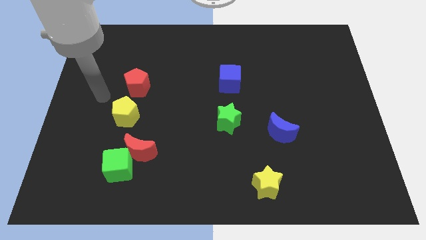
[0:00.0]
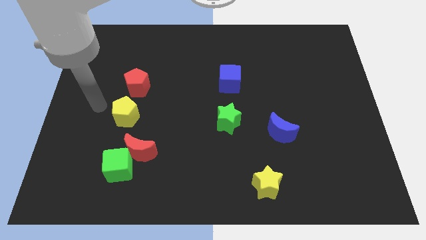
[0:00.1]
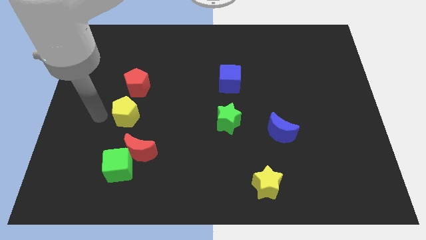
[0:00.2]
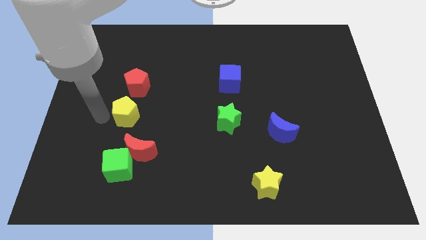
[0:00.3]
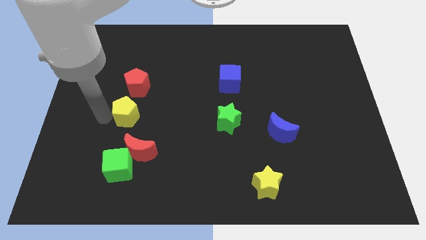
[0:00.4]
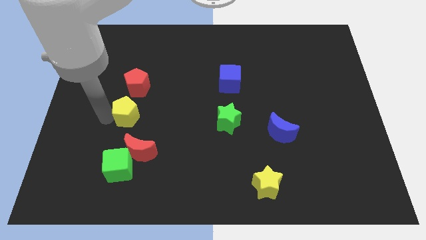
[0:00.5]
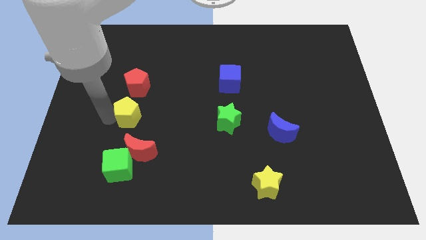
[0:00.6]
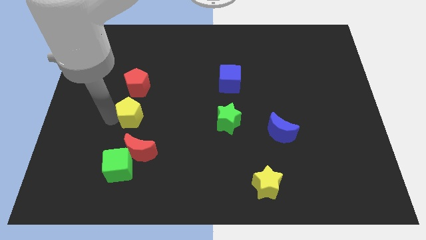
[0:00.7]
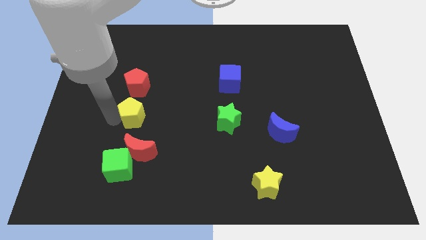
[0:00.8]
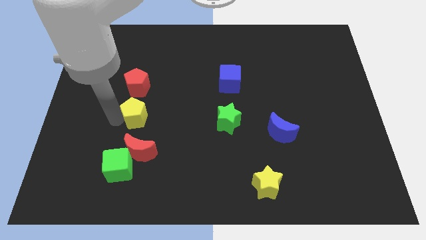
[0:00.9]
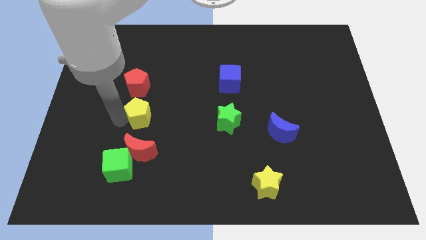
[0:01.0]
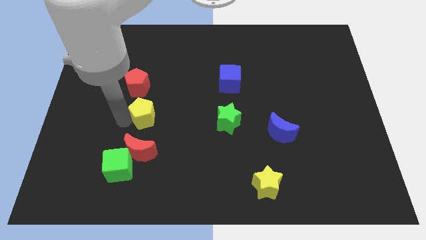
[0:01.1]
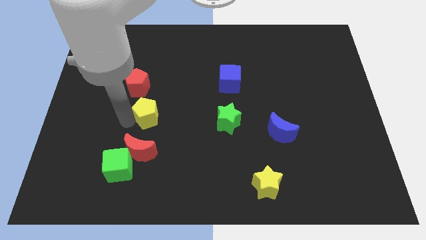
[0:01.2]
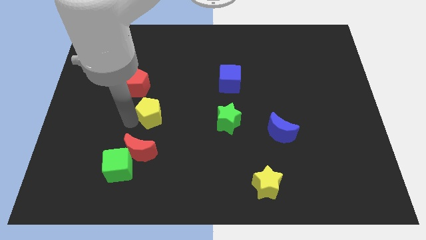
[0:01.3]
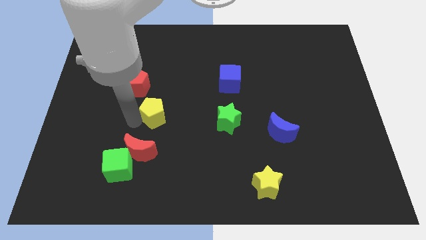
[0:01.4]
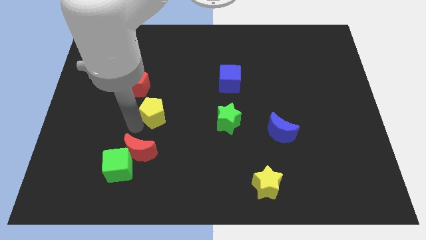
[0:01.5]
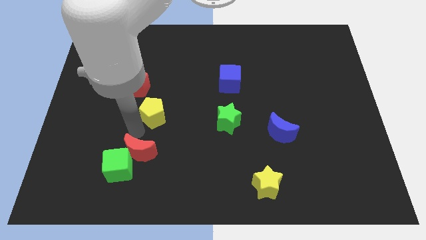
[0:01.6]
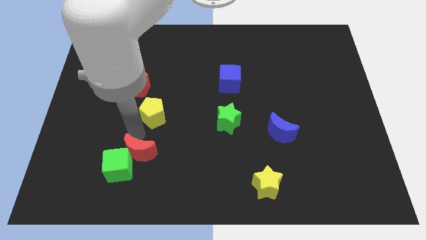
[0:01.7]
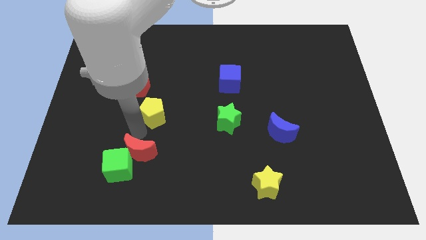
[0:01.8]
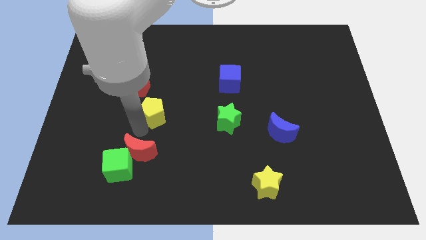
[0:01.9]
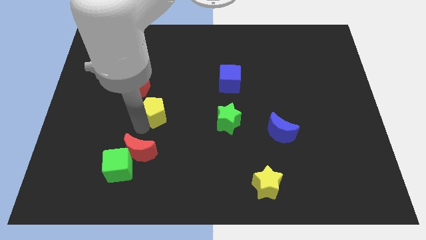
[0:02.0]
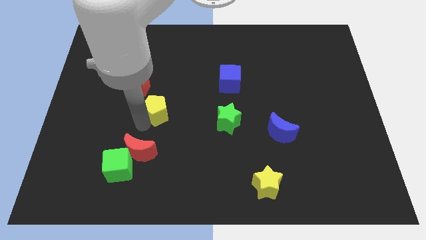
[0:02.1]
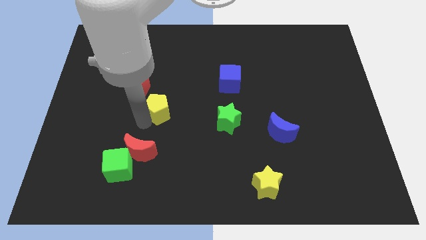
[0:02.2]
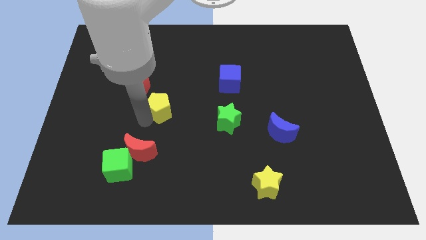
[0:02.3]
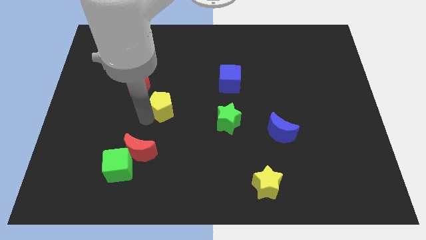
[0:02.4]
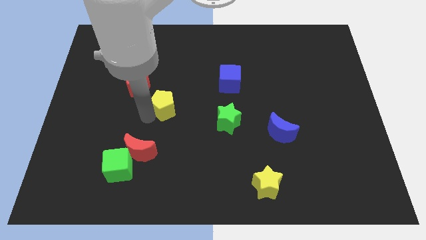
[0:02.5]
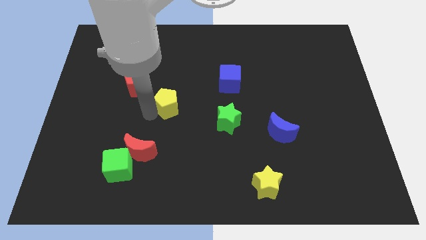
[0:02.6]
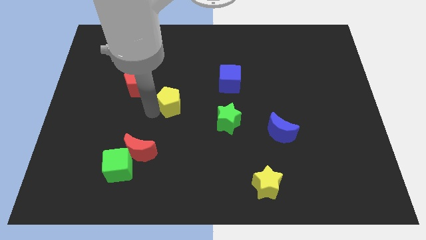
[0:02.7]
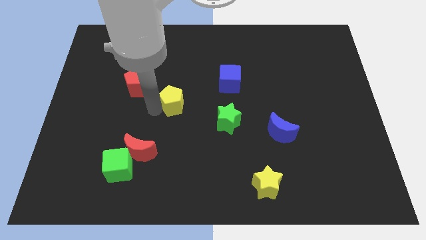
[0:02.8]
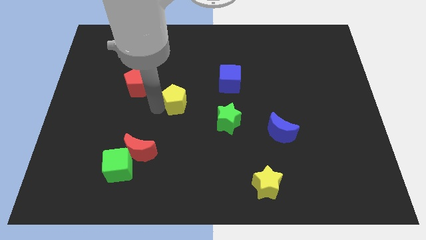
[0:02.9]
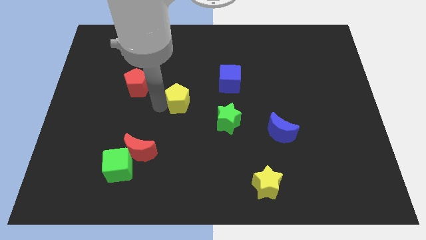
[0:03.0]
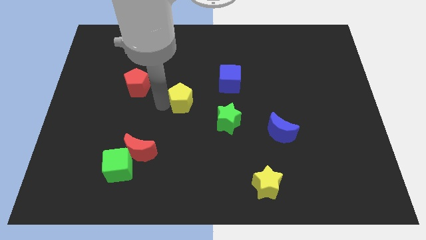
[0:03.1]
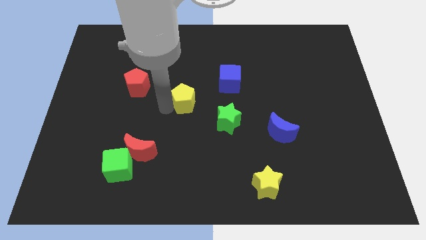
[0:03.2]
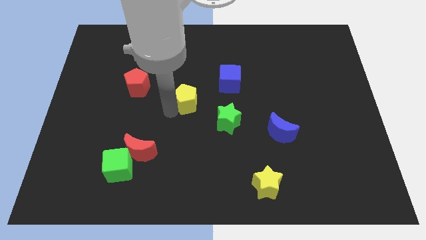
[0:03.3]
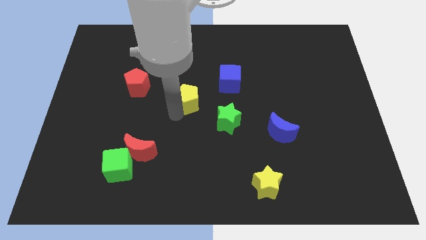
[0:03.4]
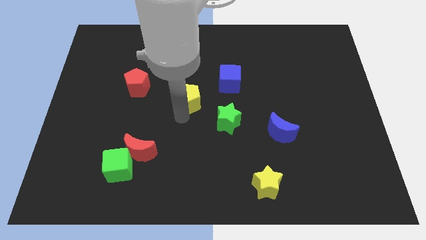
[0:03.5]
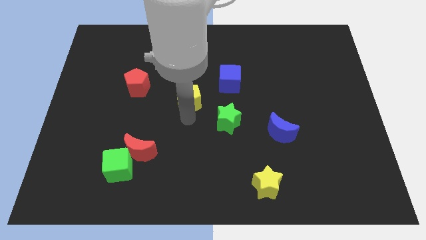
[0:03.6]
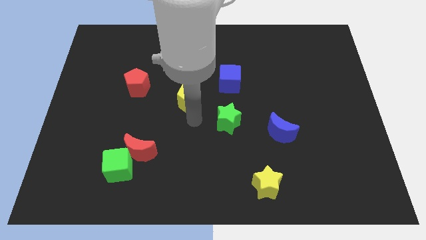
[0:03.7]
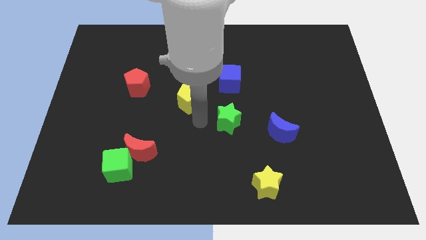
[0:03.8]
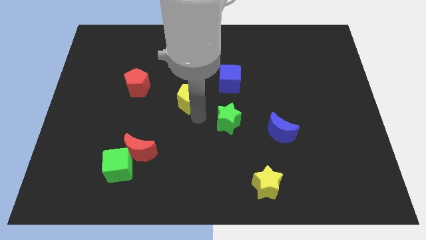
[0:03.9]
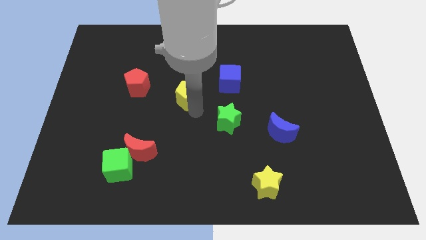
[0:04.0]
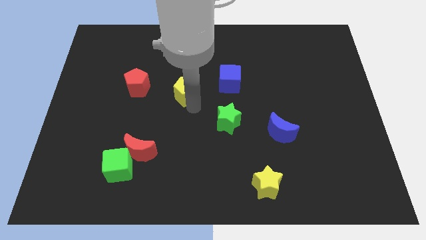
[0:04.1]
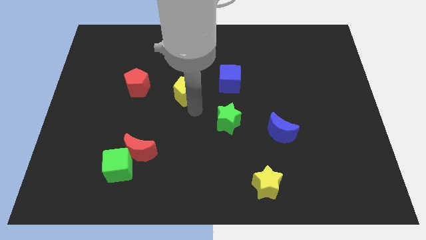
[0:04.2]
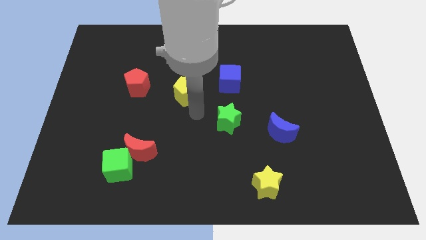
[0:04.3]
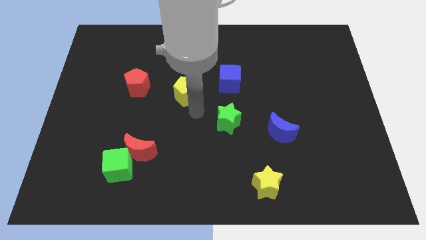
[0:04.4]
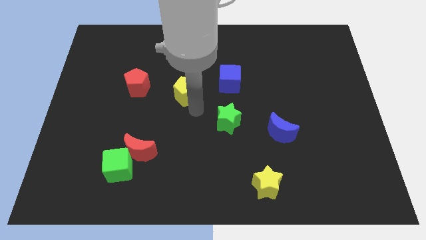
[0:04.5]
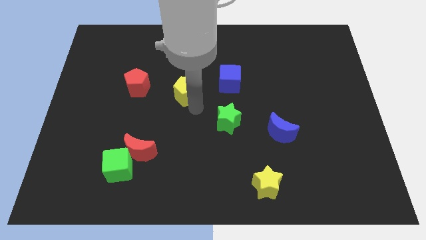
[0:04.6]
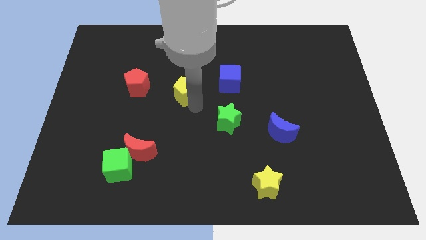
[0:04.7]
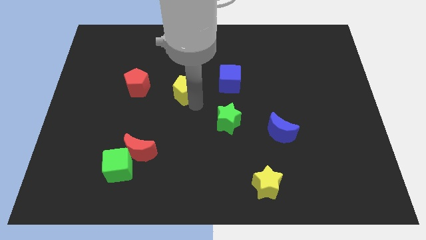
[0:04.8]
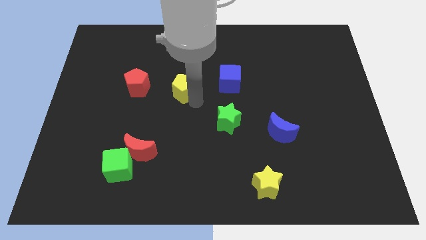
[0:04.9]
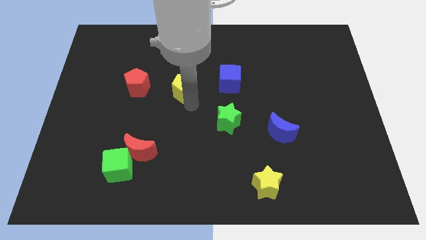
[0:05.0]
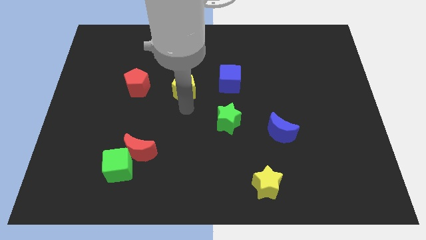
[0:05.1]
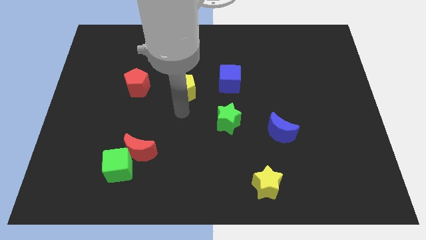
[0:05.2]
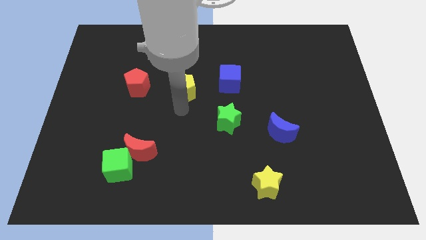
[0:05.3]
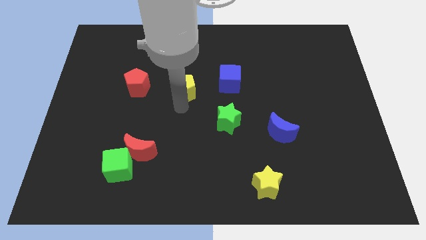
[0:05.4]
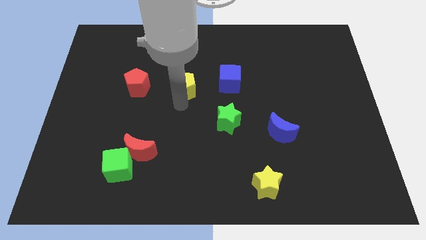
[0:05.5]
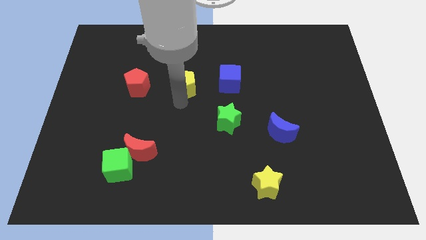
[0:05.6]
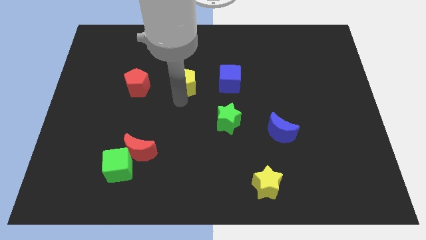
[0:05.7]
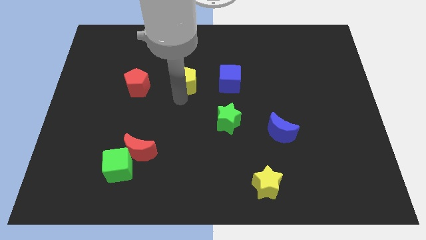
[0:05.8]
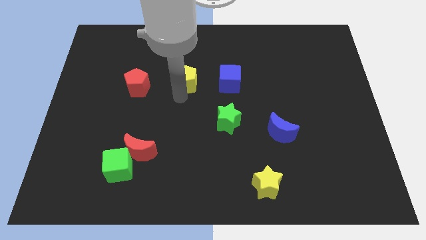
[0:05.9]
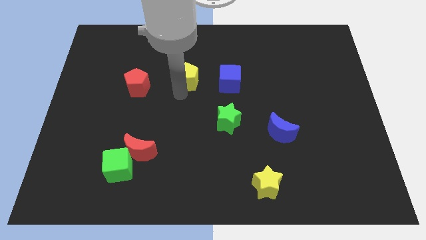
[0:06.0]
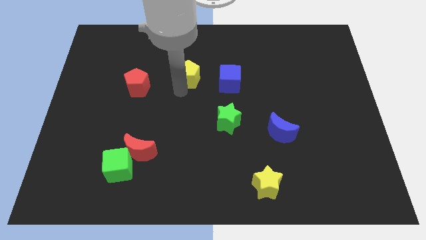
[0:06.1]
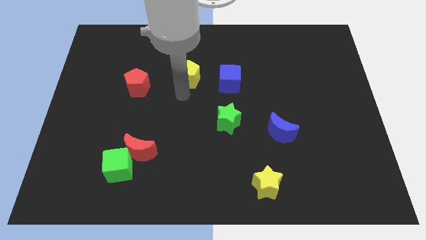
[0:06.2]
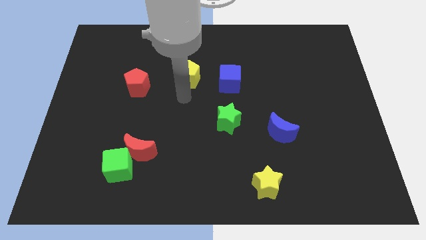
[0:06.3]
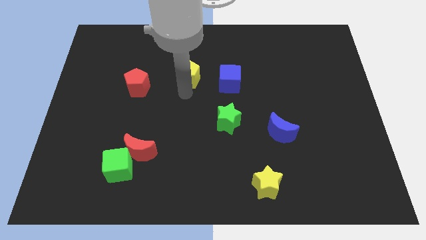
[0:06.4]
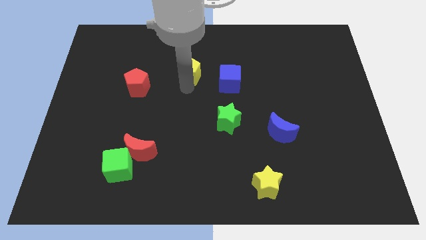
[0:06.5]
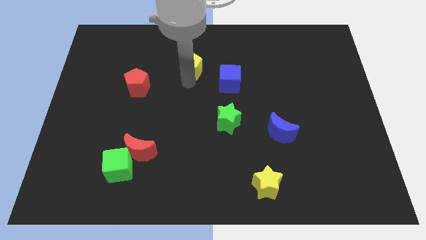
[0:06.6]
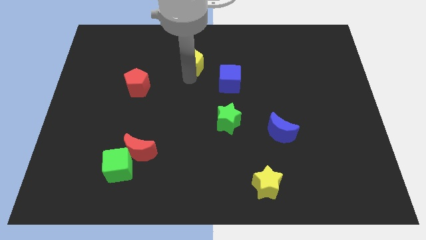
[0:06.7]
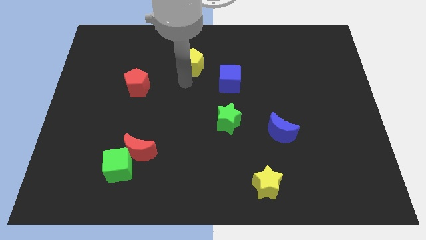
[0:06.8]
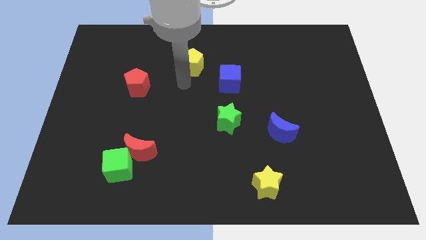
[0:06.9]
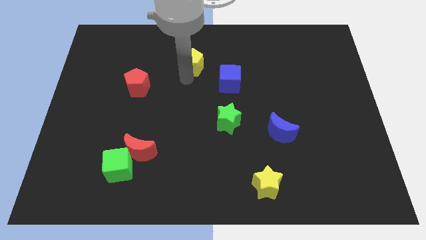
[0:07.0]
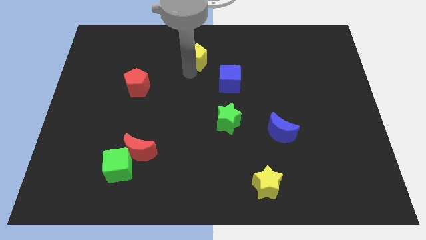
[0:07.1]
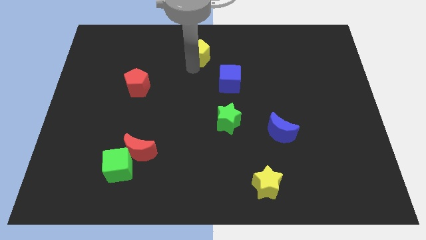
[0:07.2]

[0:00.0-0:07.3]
put the yellow pentagon to the top

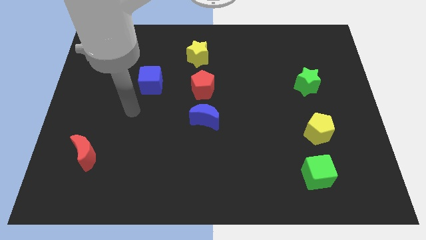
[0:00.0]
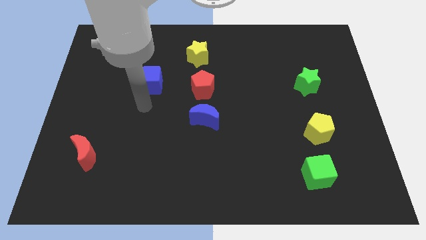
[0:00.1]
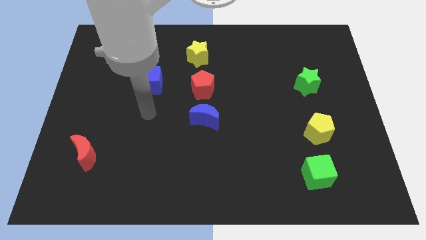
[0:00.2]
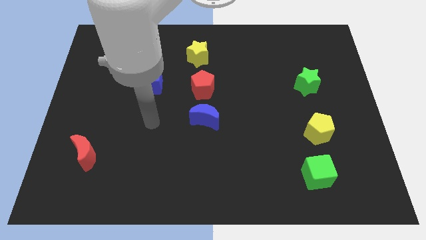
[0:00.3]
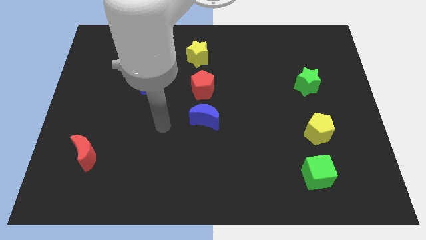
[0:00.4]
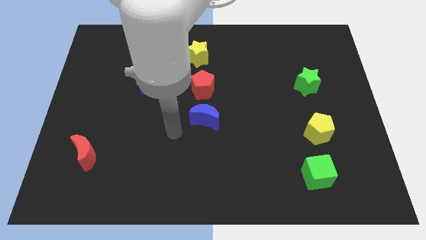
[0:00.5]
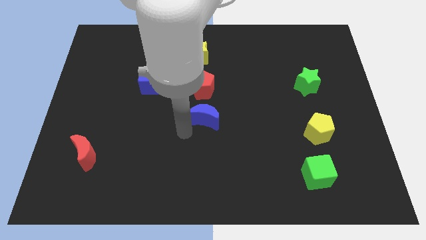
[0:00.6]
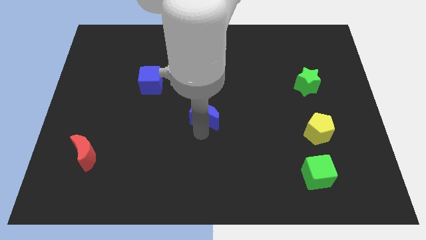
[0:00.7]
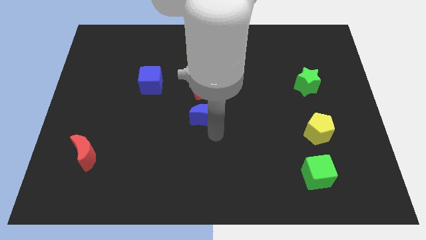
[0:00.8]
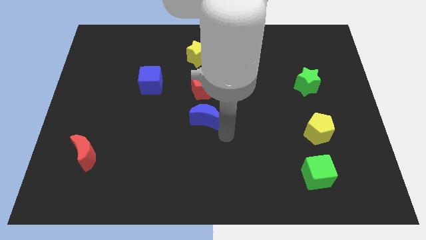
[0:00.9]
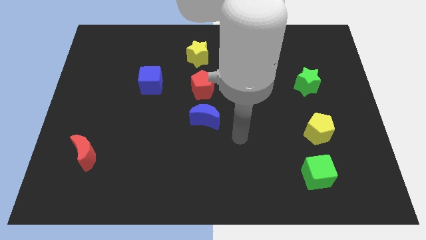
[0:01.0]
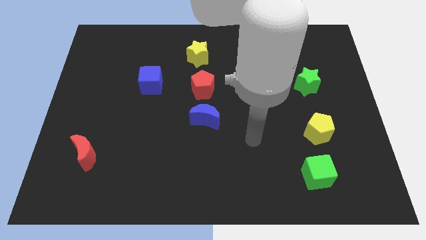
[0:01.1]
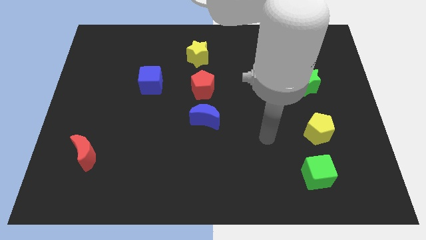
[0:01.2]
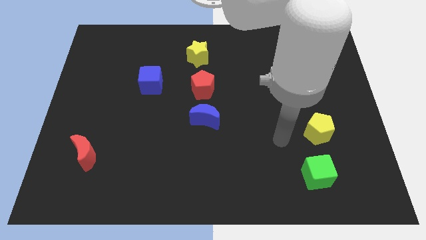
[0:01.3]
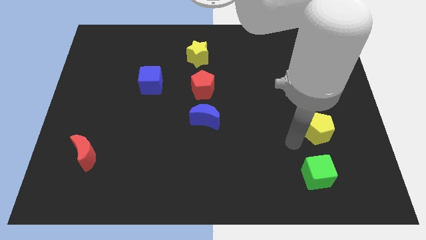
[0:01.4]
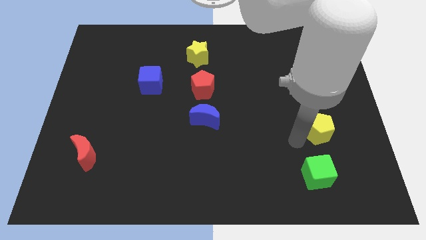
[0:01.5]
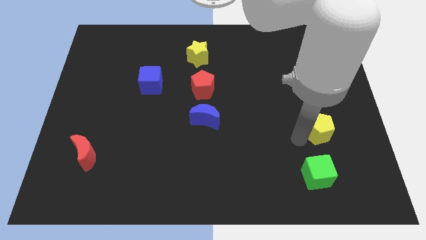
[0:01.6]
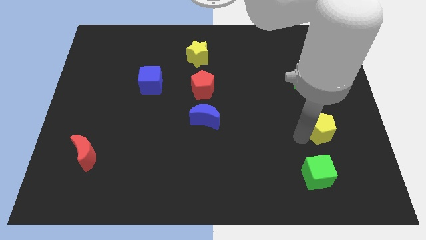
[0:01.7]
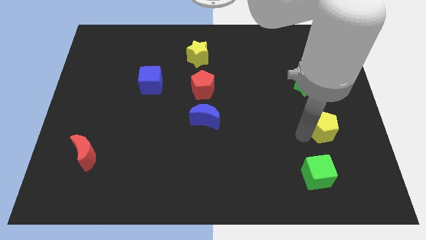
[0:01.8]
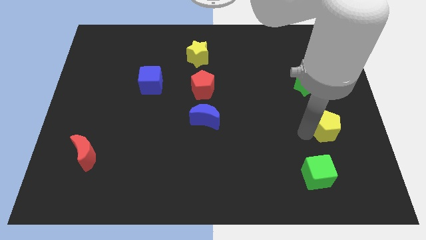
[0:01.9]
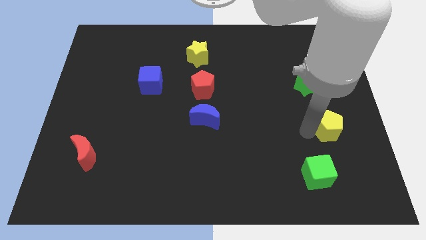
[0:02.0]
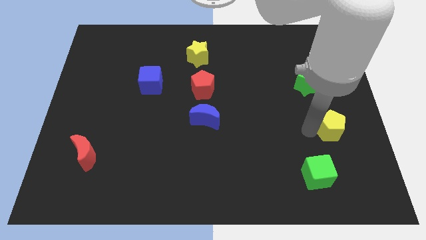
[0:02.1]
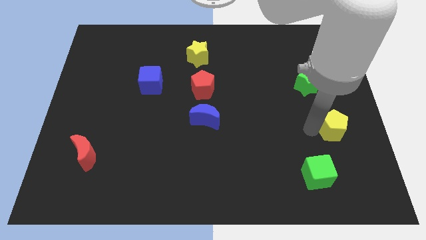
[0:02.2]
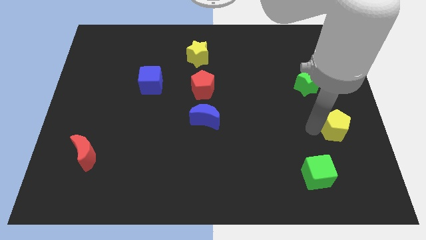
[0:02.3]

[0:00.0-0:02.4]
slide the yellow pentagon to the right side
